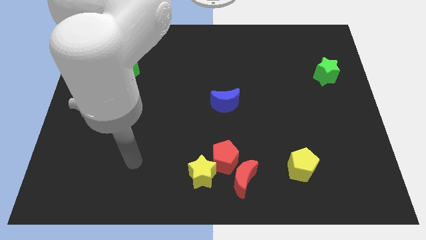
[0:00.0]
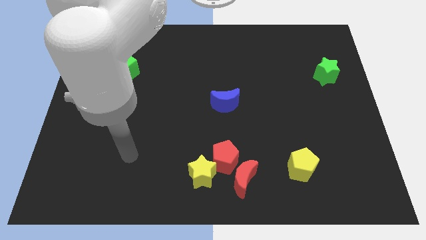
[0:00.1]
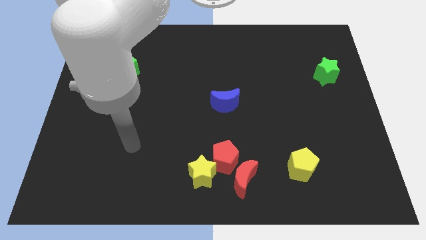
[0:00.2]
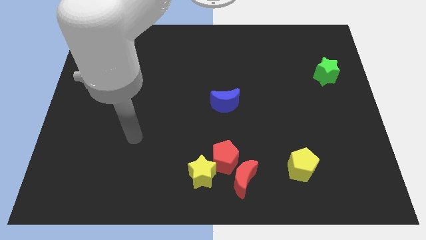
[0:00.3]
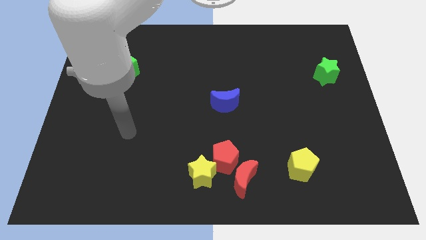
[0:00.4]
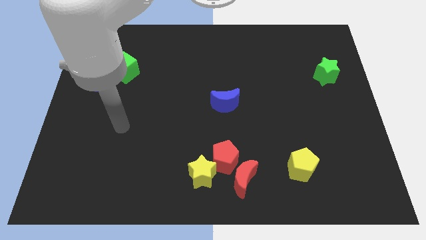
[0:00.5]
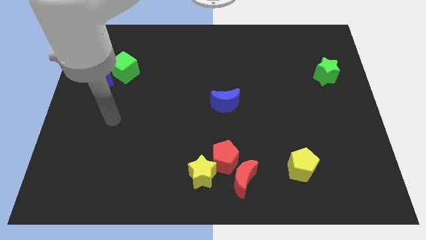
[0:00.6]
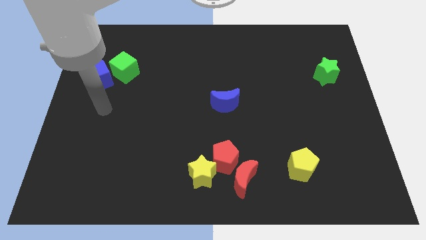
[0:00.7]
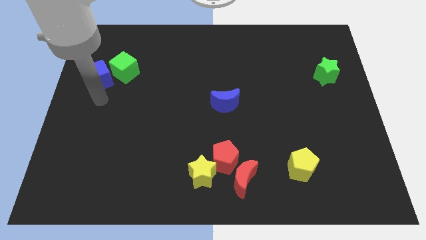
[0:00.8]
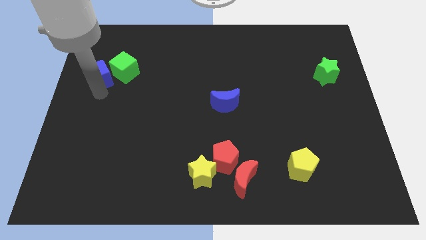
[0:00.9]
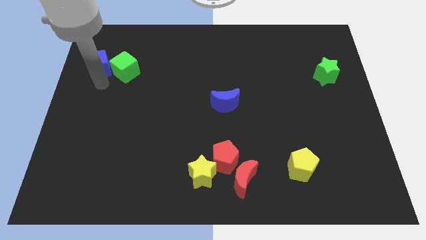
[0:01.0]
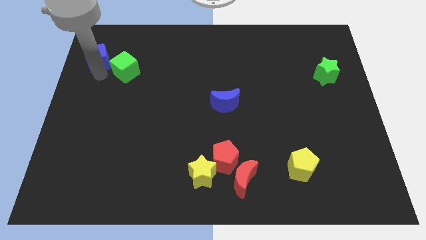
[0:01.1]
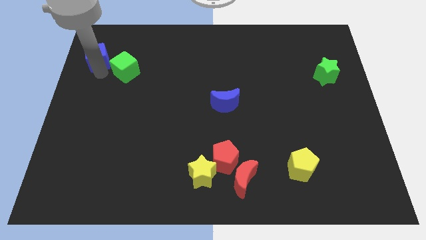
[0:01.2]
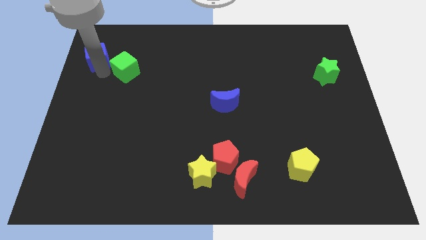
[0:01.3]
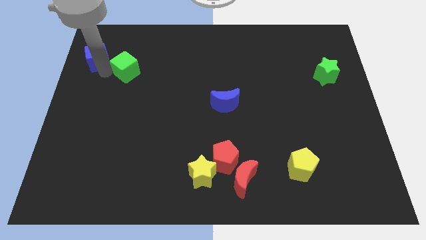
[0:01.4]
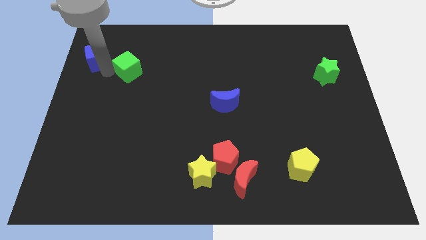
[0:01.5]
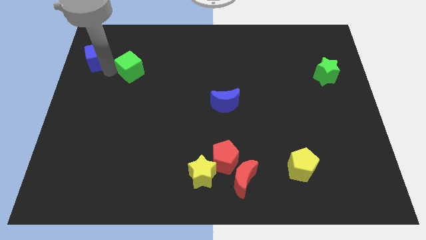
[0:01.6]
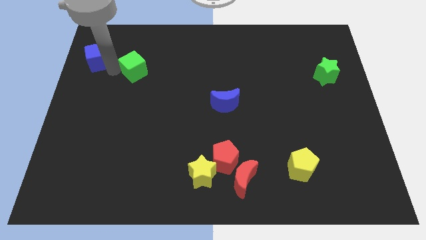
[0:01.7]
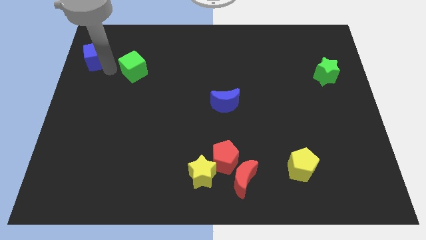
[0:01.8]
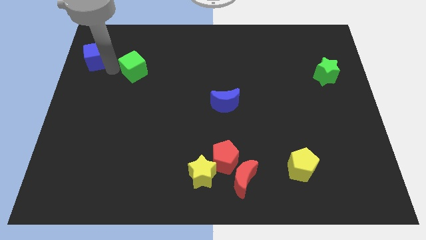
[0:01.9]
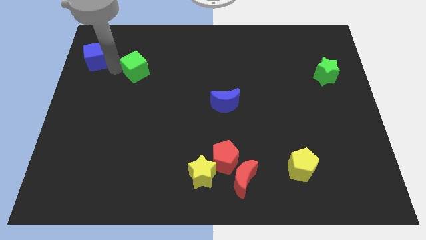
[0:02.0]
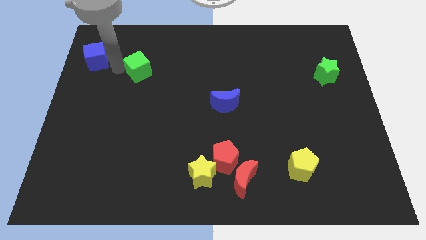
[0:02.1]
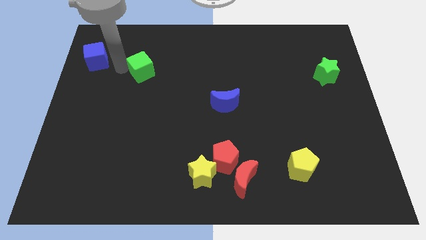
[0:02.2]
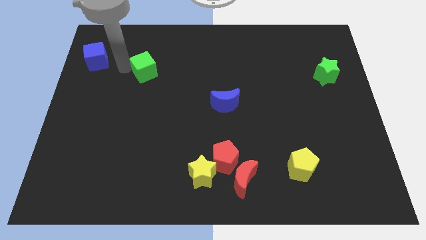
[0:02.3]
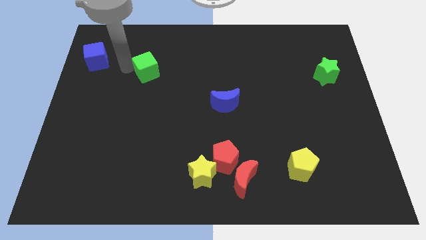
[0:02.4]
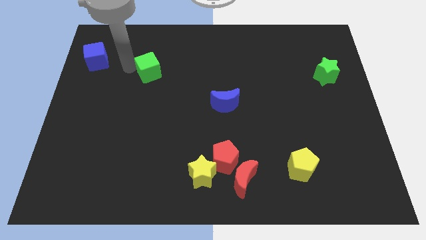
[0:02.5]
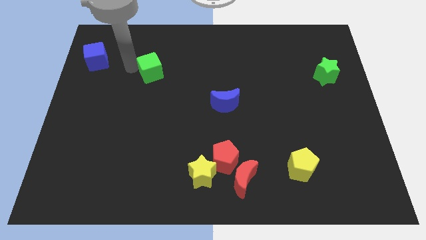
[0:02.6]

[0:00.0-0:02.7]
push the green cube slightly to the right

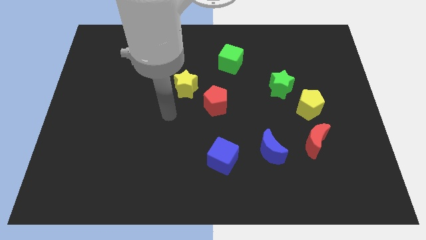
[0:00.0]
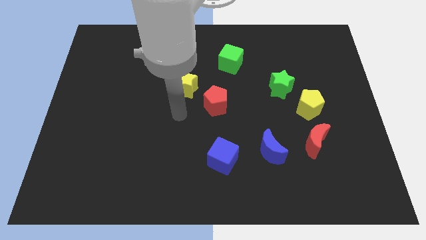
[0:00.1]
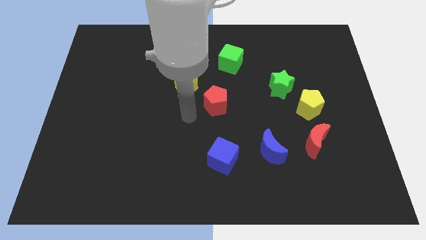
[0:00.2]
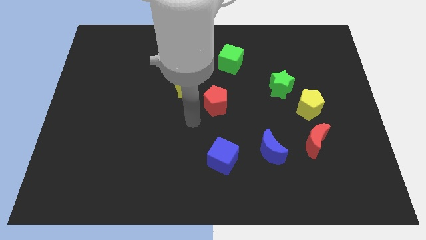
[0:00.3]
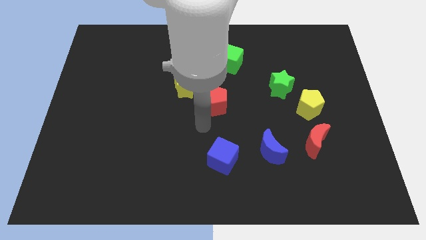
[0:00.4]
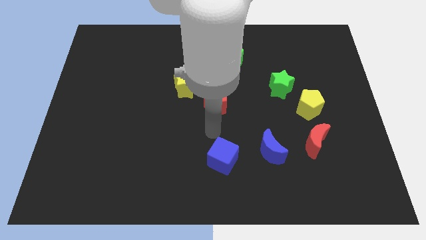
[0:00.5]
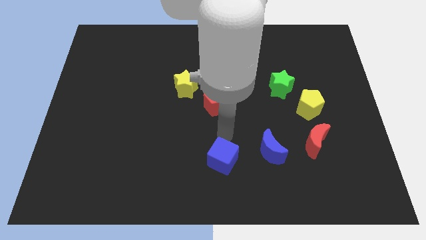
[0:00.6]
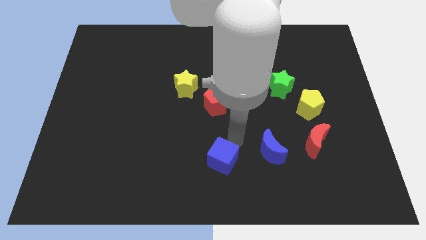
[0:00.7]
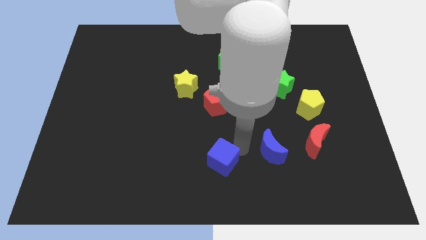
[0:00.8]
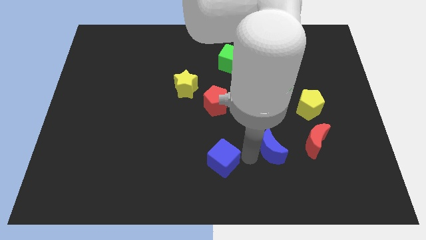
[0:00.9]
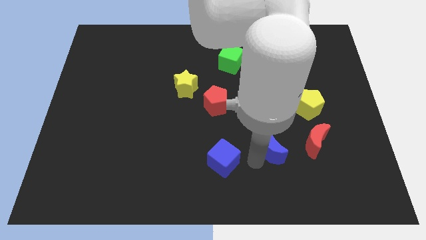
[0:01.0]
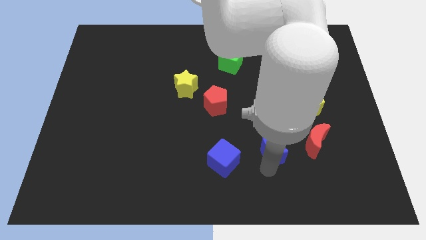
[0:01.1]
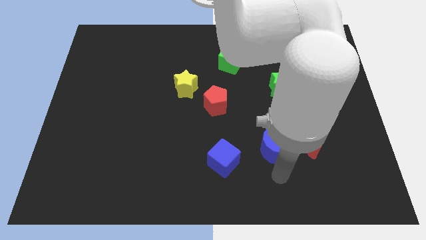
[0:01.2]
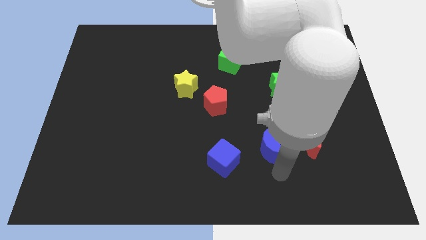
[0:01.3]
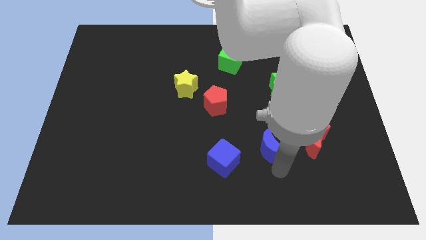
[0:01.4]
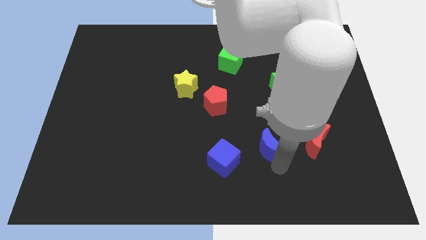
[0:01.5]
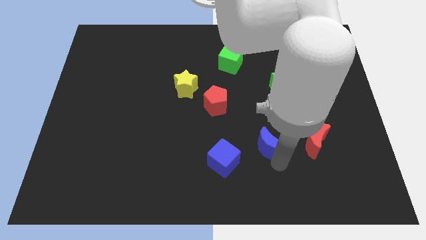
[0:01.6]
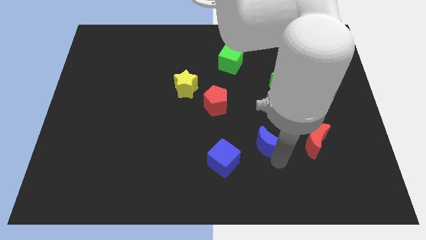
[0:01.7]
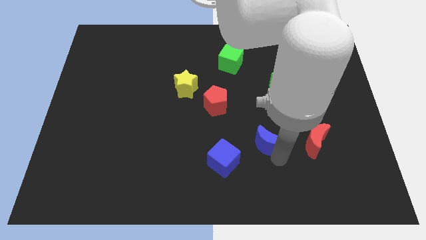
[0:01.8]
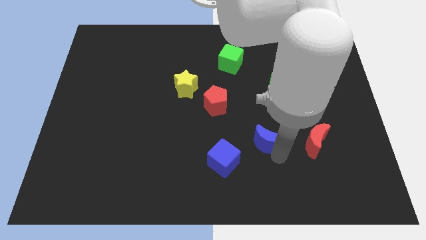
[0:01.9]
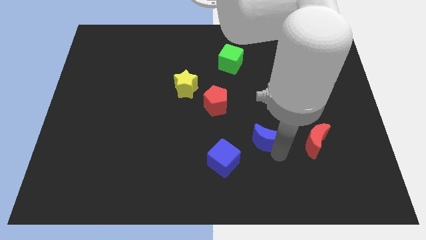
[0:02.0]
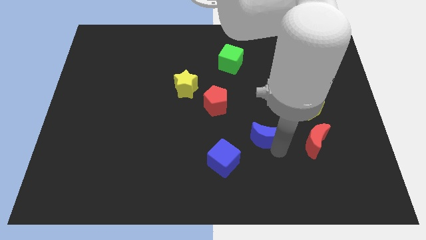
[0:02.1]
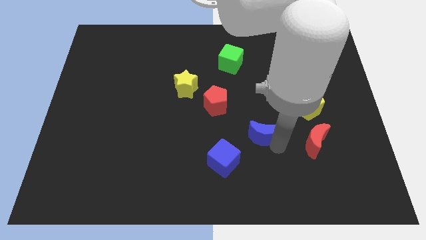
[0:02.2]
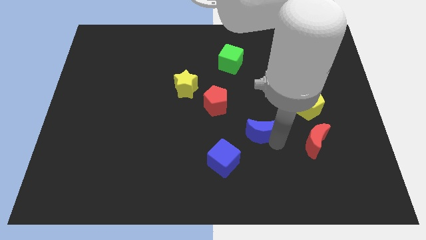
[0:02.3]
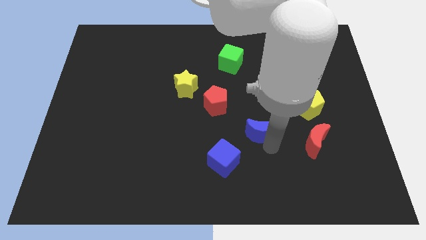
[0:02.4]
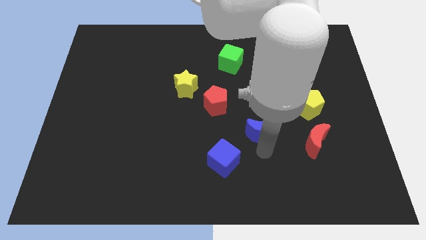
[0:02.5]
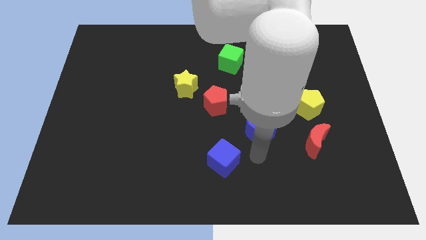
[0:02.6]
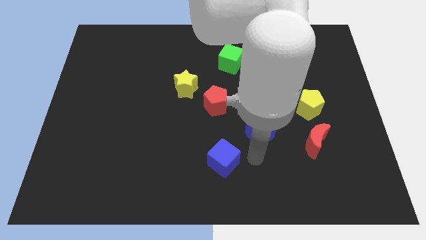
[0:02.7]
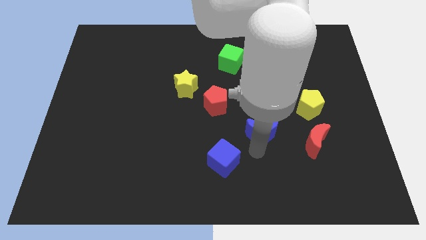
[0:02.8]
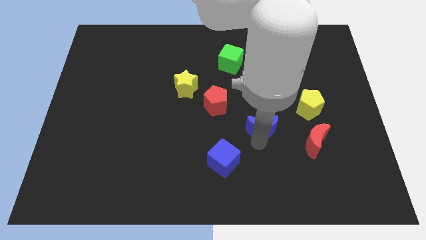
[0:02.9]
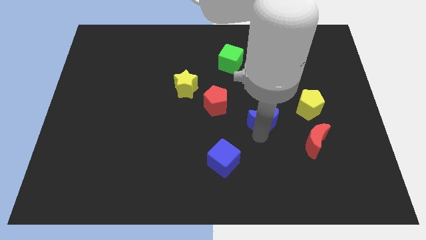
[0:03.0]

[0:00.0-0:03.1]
slightly slide the blue moon upwards

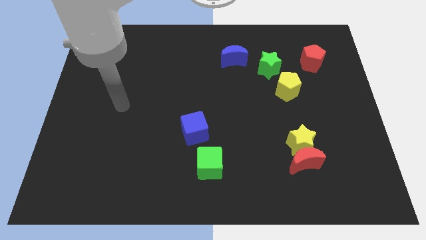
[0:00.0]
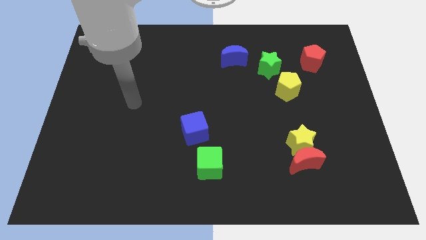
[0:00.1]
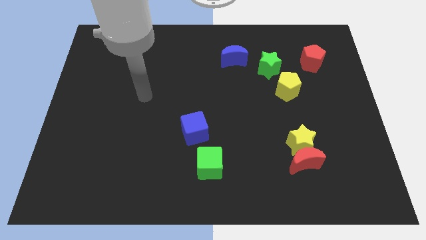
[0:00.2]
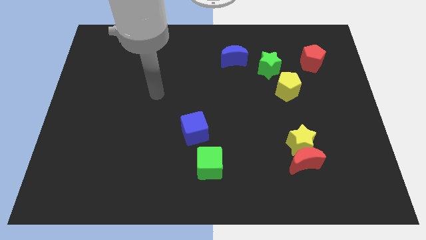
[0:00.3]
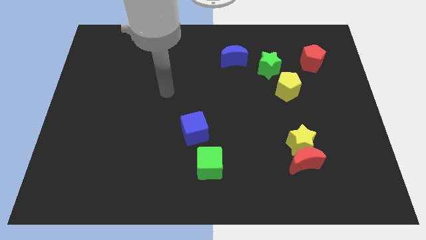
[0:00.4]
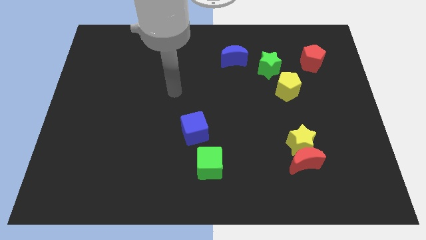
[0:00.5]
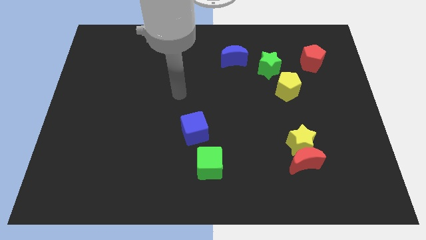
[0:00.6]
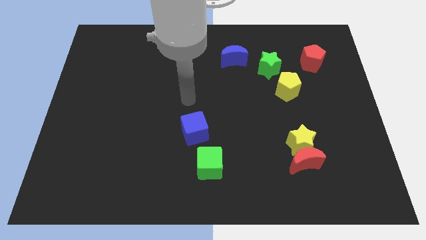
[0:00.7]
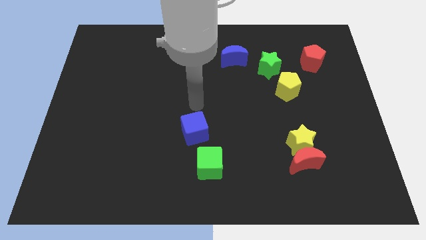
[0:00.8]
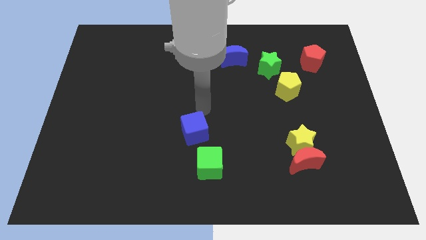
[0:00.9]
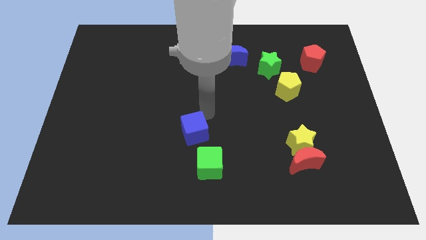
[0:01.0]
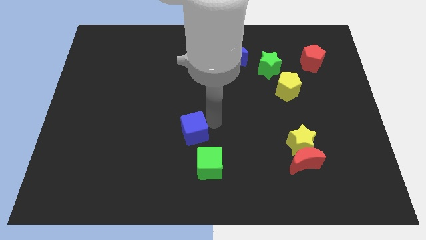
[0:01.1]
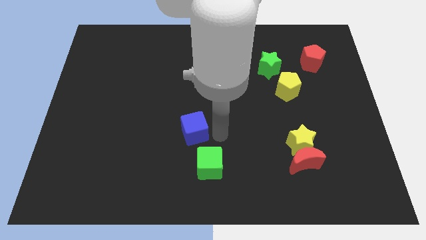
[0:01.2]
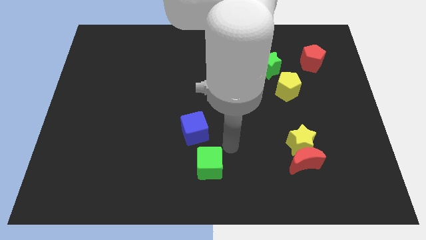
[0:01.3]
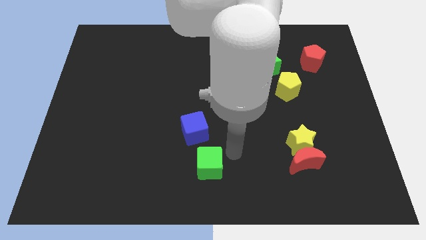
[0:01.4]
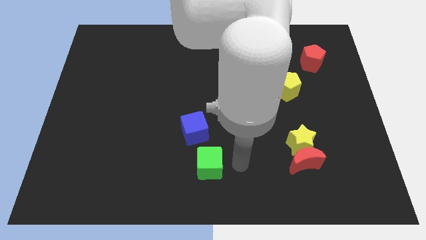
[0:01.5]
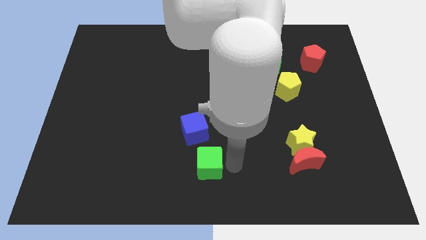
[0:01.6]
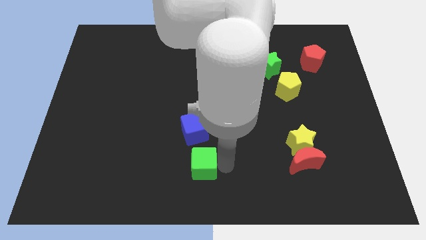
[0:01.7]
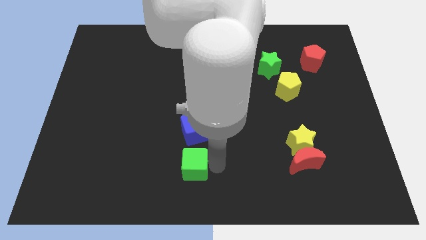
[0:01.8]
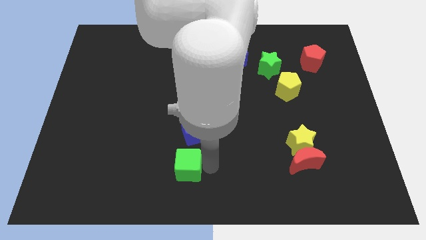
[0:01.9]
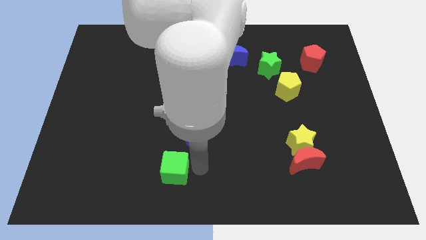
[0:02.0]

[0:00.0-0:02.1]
slide the green cube a little bit left
